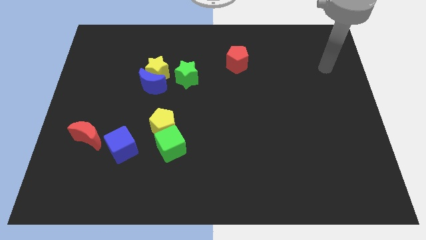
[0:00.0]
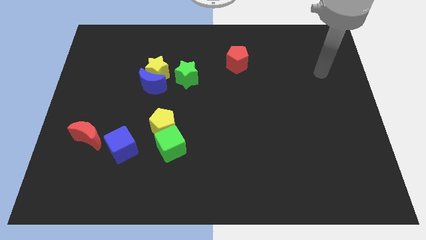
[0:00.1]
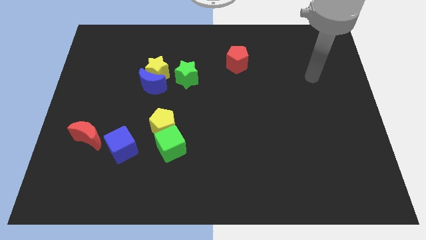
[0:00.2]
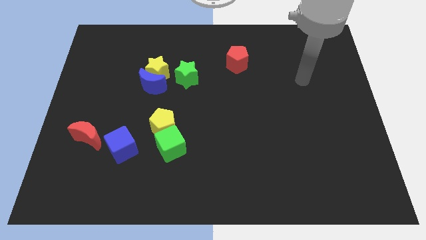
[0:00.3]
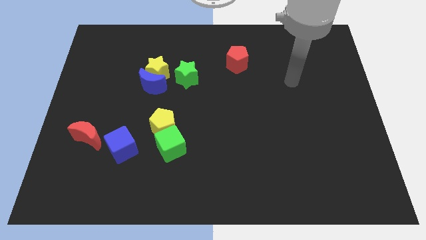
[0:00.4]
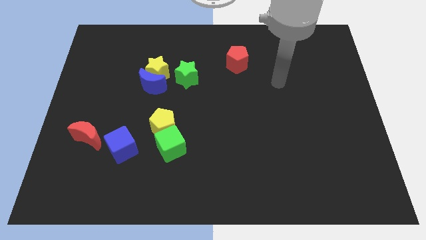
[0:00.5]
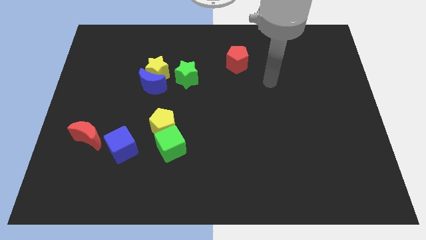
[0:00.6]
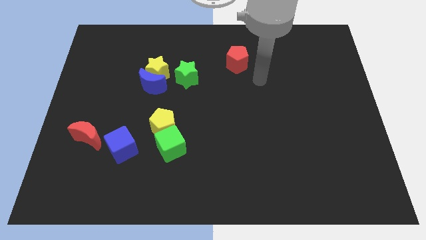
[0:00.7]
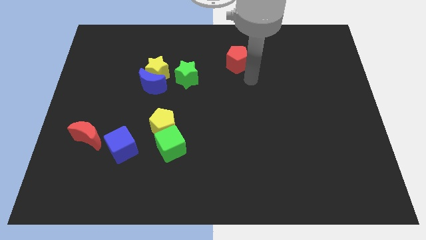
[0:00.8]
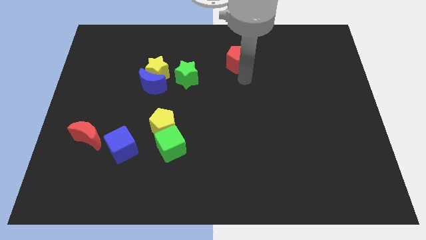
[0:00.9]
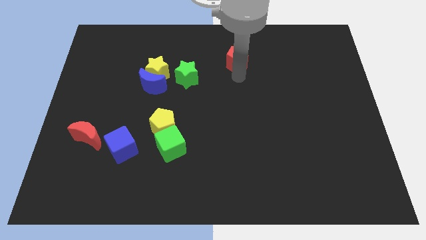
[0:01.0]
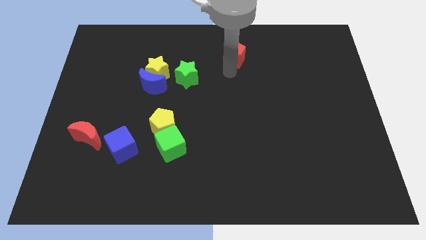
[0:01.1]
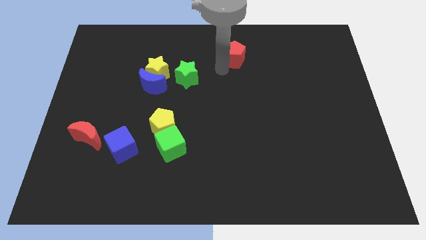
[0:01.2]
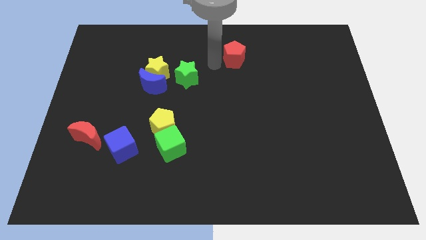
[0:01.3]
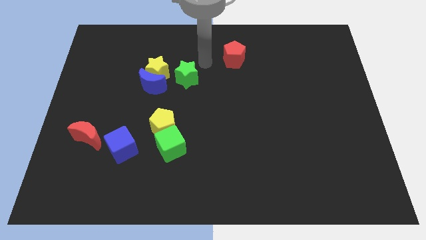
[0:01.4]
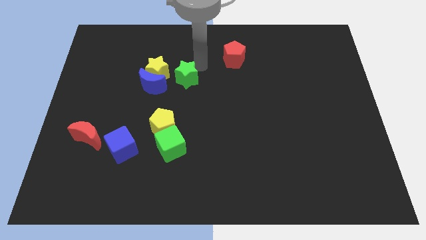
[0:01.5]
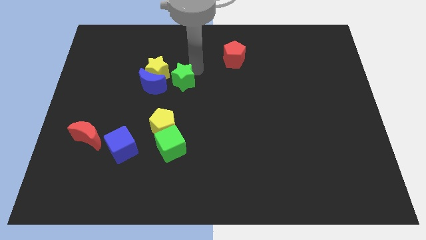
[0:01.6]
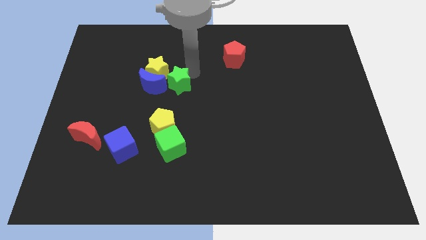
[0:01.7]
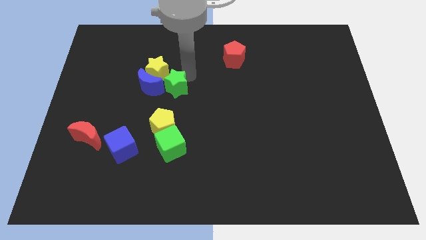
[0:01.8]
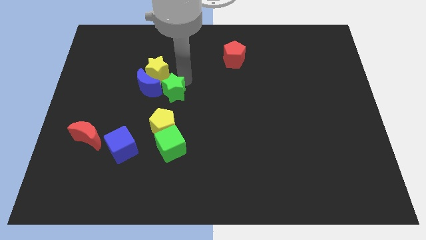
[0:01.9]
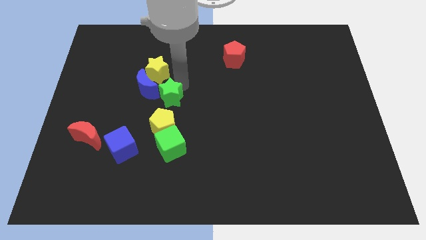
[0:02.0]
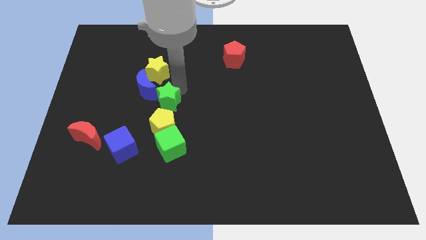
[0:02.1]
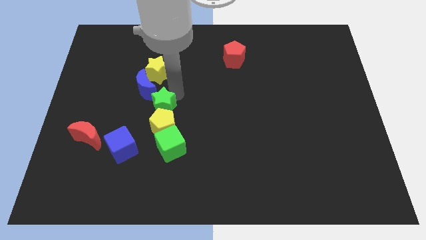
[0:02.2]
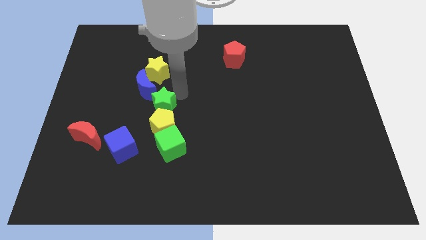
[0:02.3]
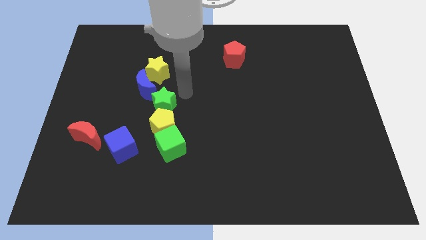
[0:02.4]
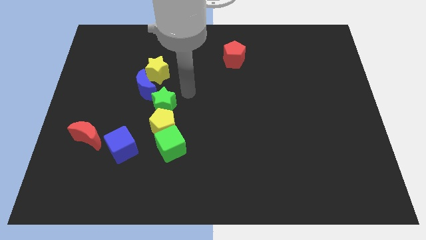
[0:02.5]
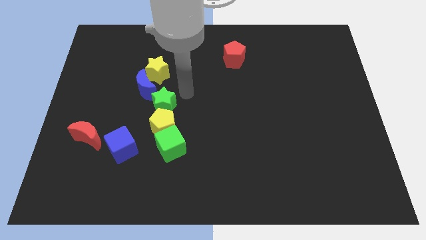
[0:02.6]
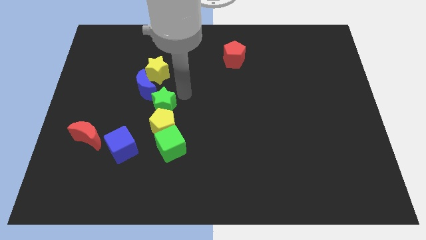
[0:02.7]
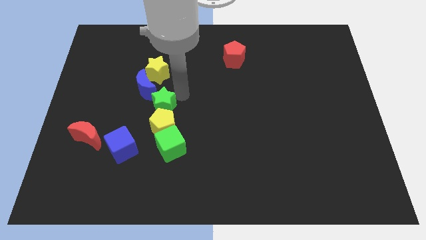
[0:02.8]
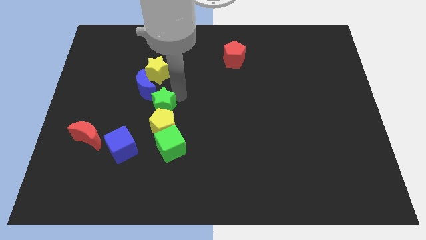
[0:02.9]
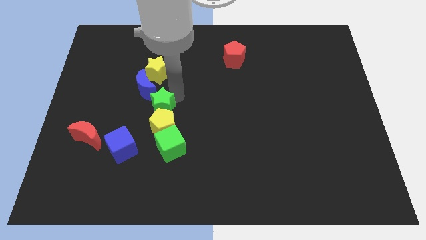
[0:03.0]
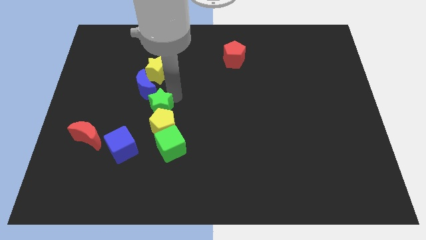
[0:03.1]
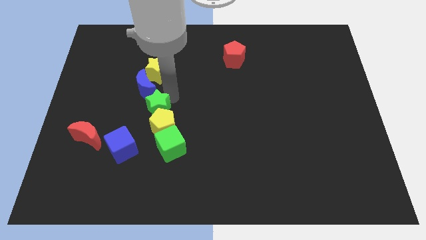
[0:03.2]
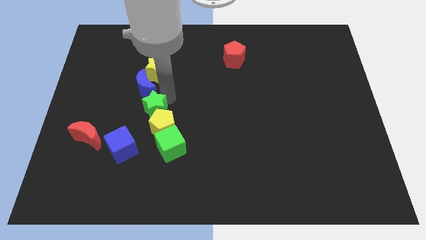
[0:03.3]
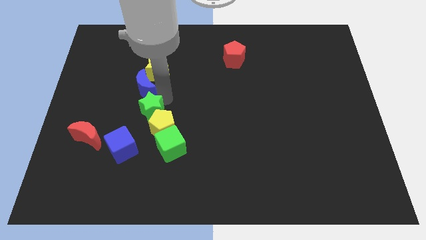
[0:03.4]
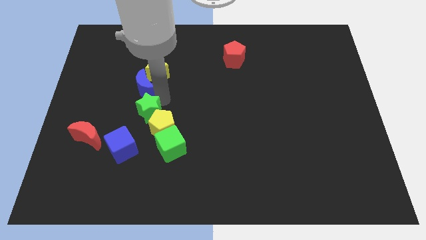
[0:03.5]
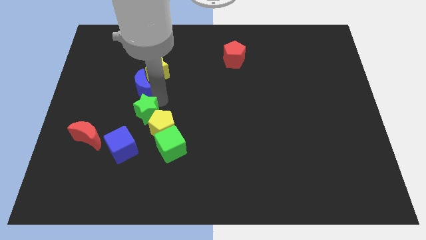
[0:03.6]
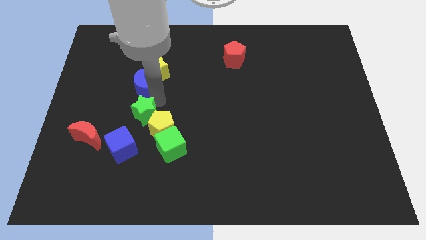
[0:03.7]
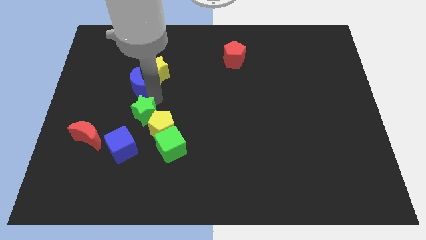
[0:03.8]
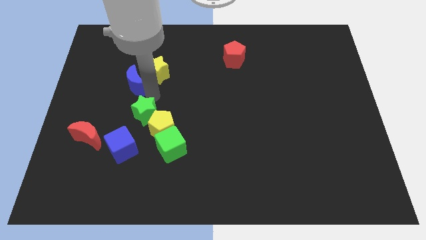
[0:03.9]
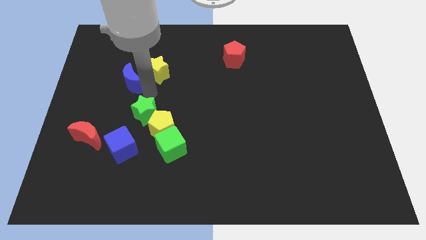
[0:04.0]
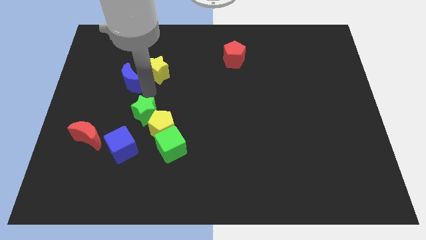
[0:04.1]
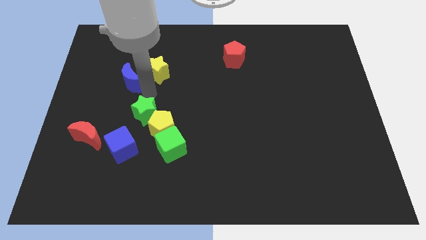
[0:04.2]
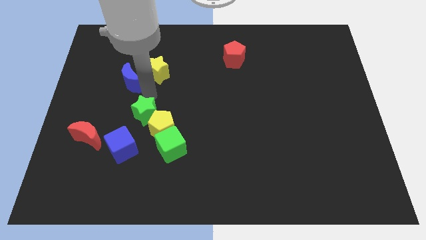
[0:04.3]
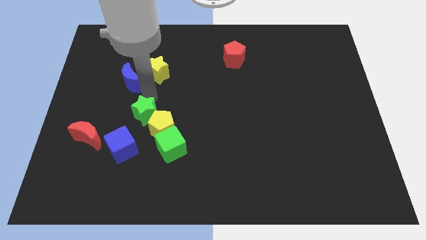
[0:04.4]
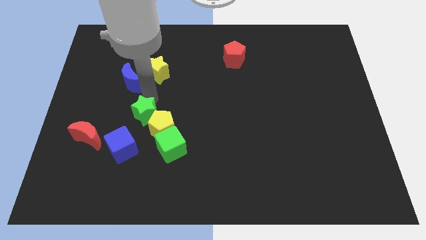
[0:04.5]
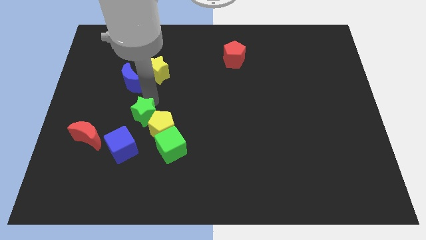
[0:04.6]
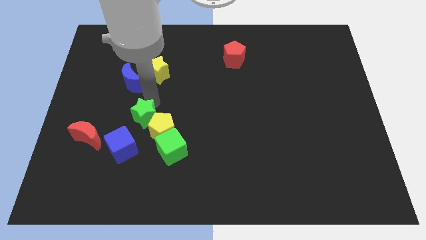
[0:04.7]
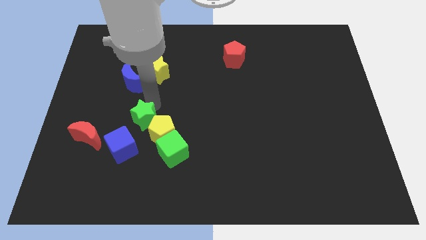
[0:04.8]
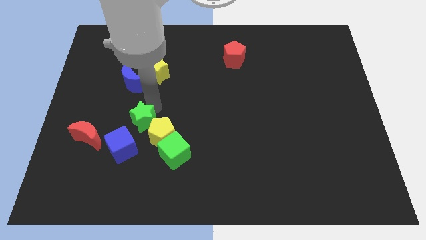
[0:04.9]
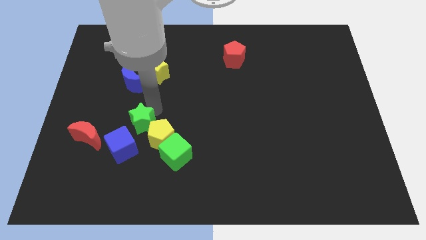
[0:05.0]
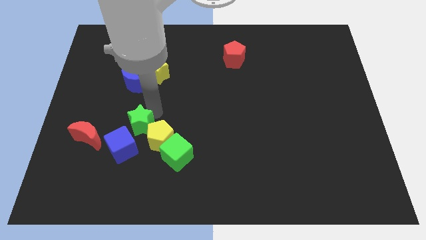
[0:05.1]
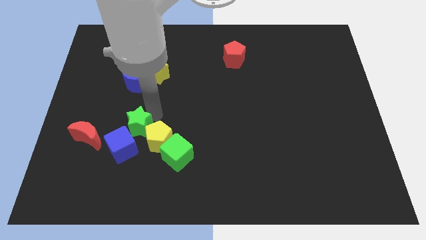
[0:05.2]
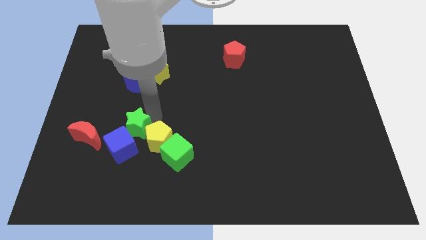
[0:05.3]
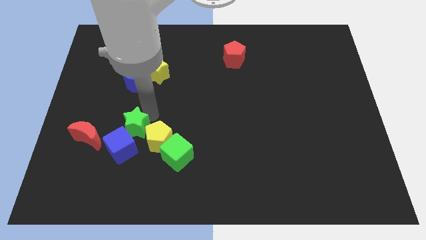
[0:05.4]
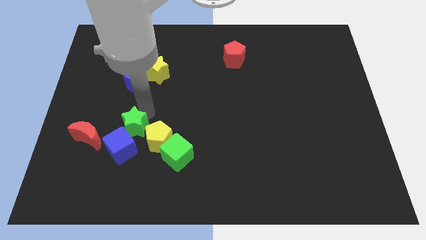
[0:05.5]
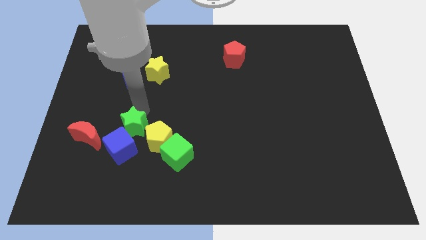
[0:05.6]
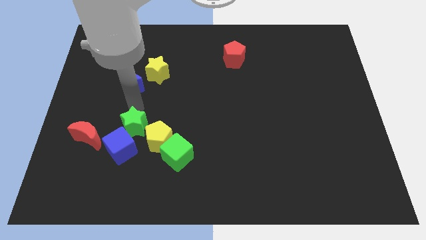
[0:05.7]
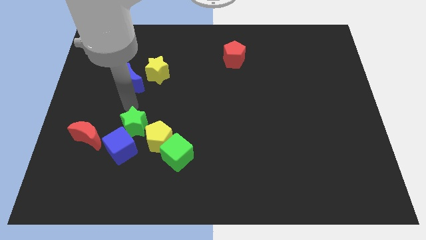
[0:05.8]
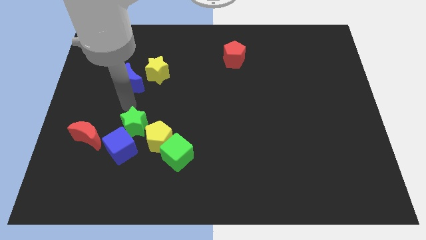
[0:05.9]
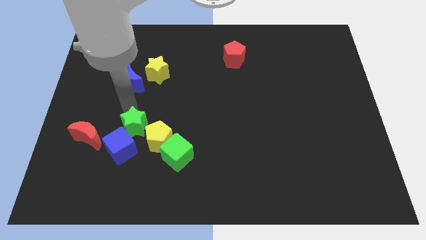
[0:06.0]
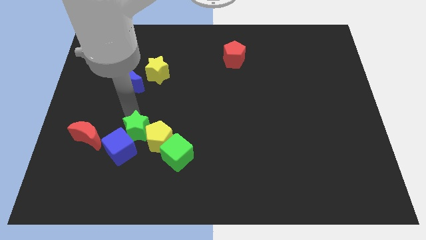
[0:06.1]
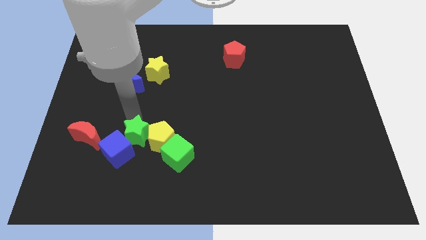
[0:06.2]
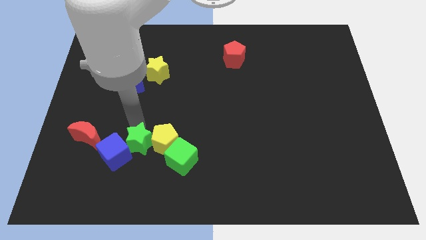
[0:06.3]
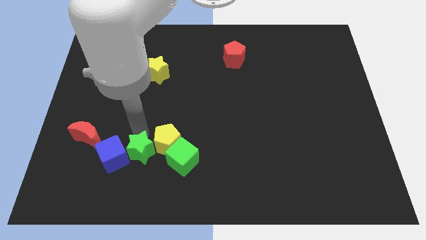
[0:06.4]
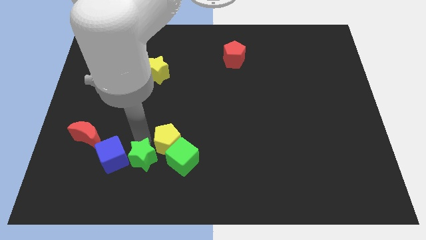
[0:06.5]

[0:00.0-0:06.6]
put the green star to the bottom right side of the blue cube
